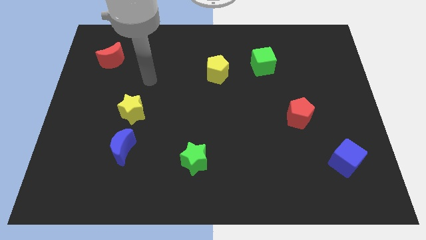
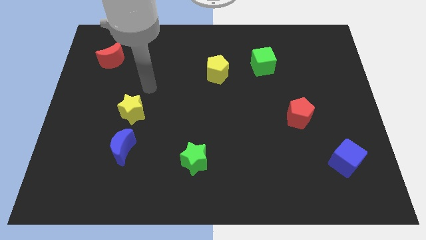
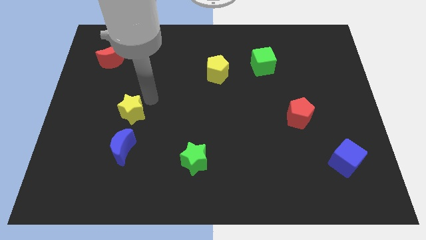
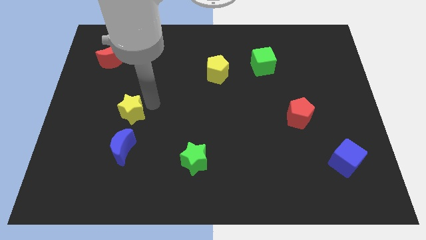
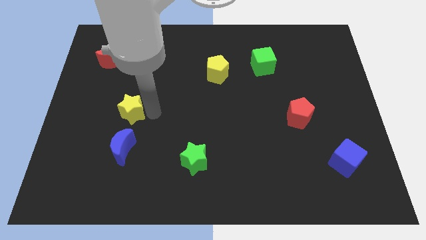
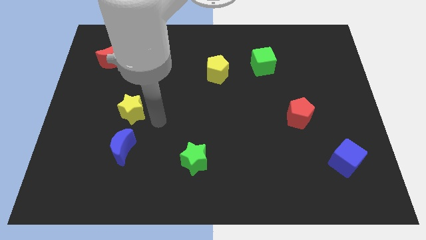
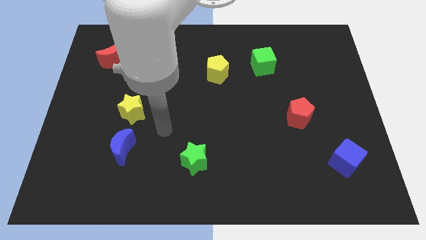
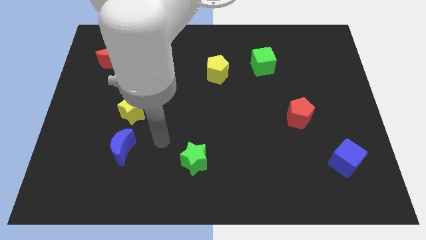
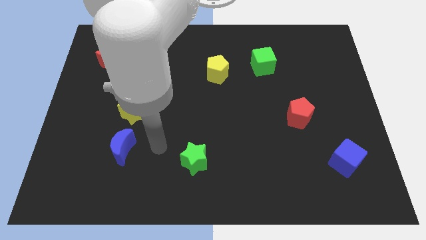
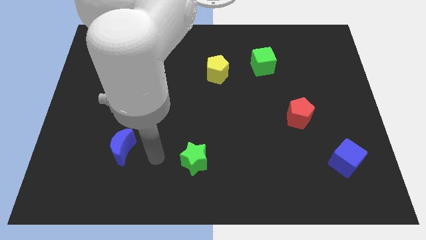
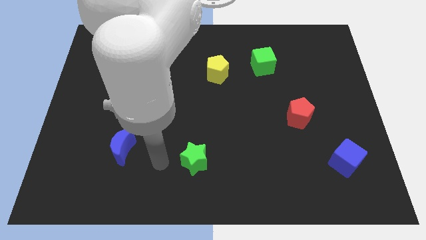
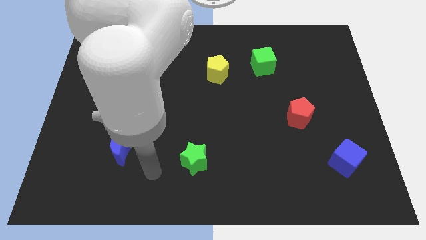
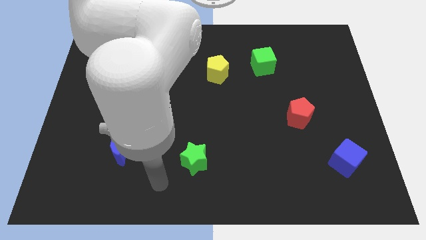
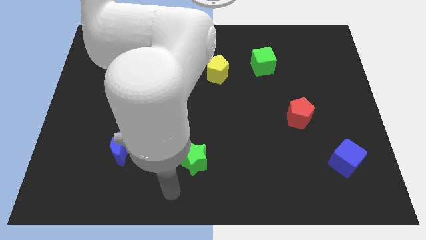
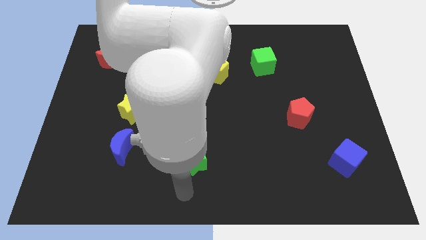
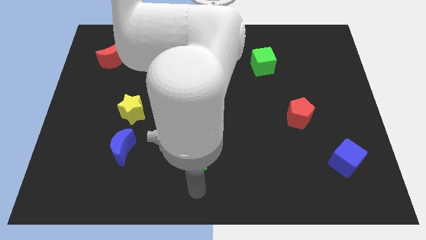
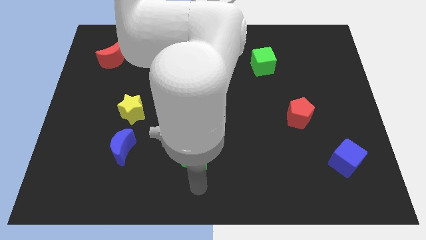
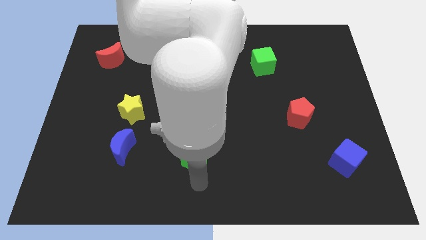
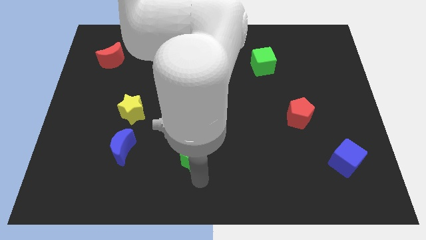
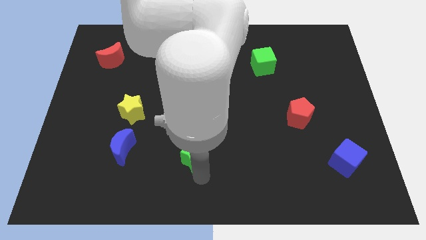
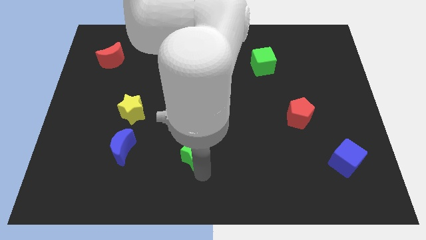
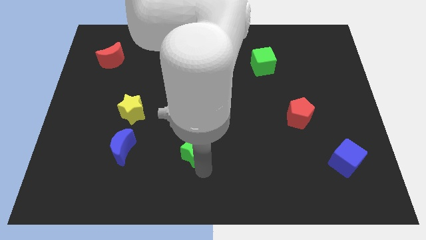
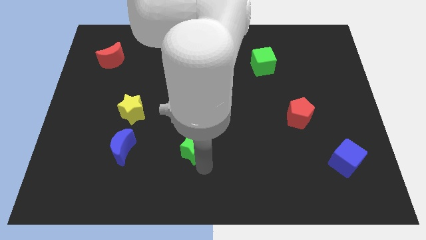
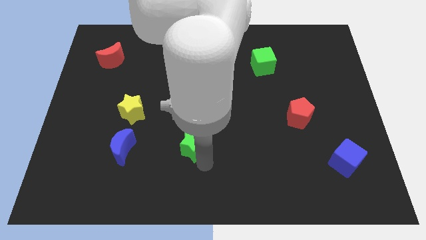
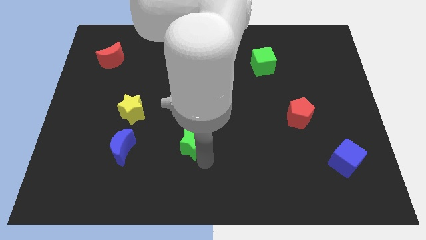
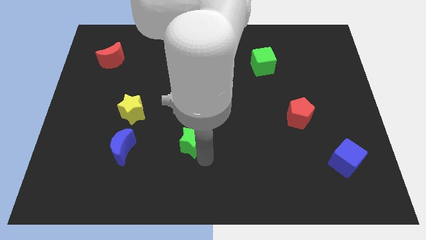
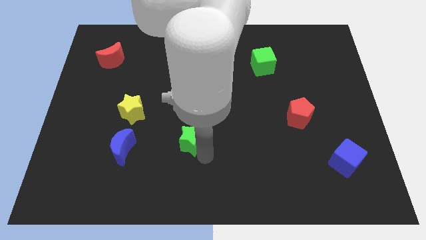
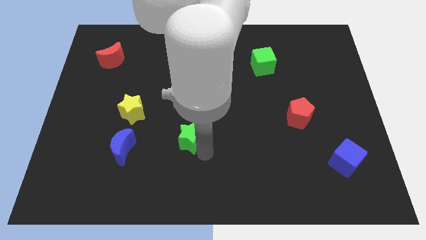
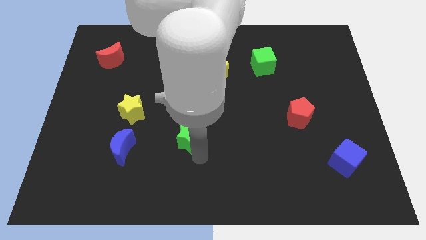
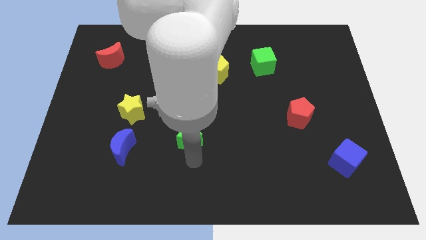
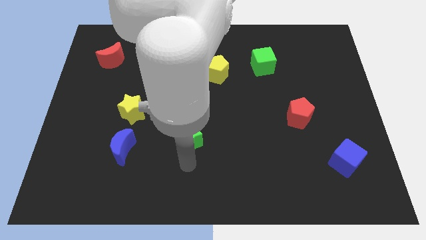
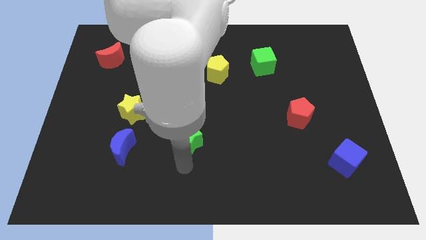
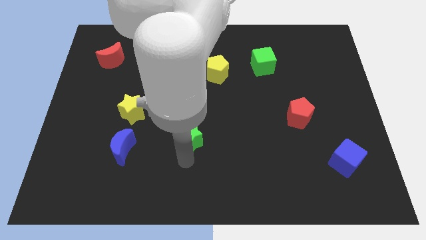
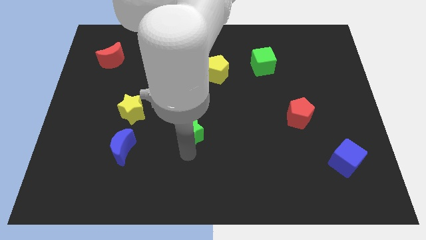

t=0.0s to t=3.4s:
slightly move the green star upwards

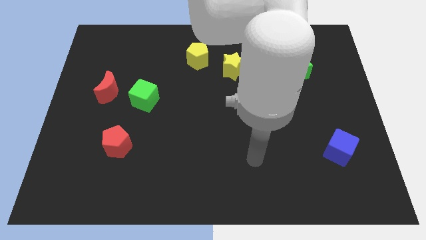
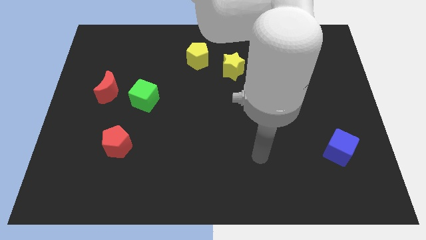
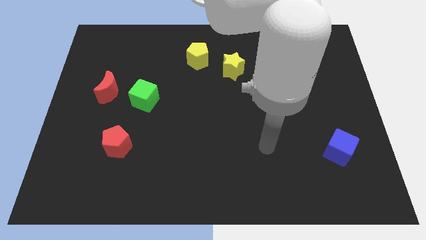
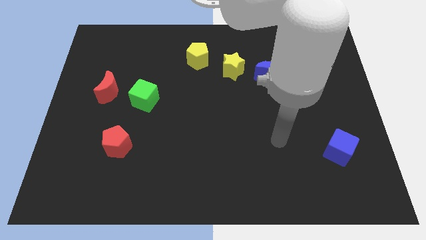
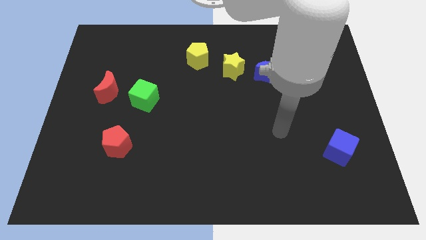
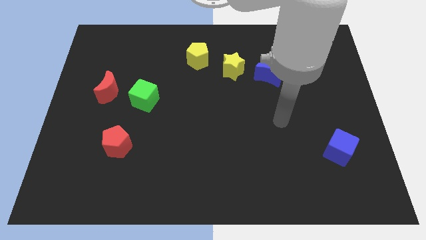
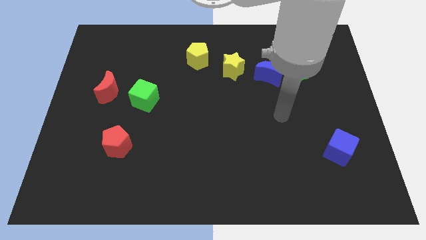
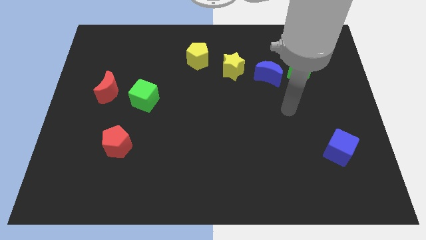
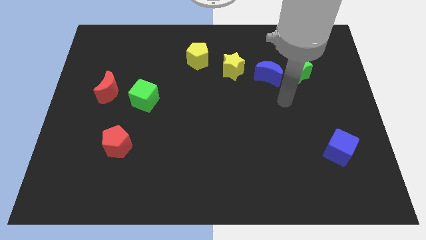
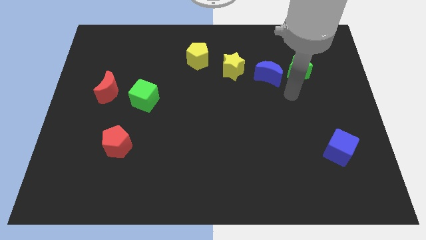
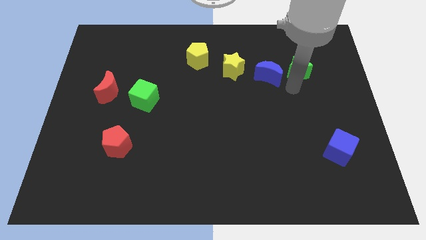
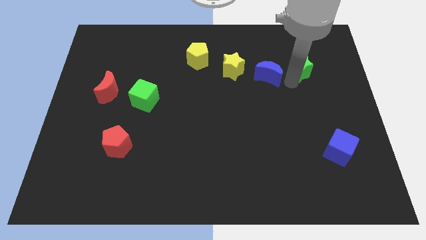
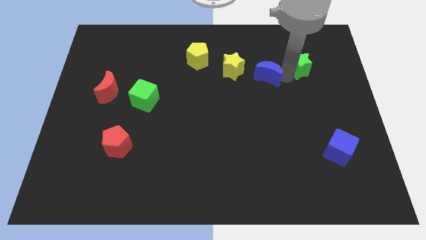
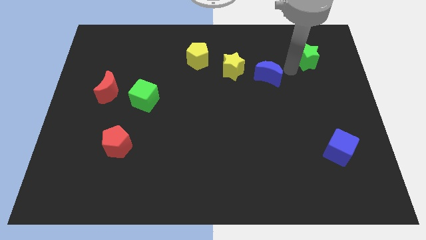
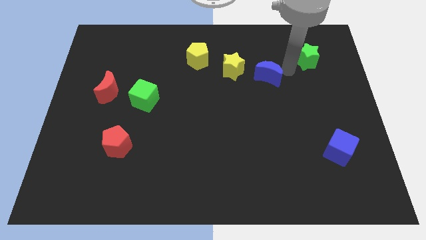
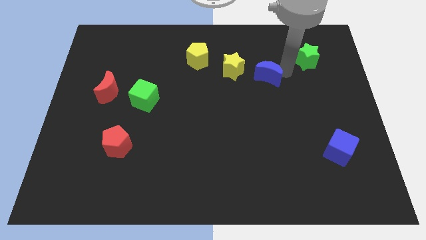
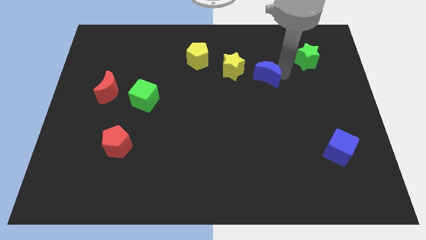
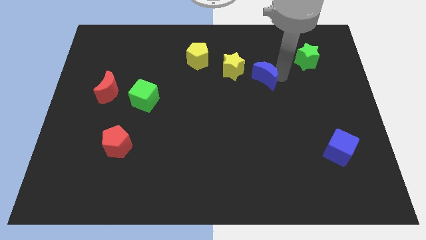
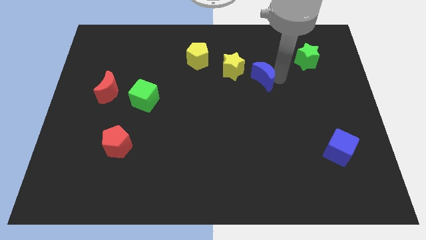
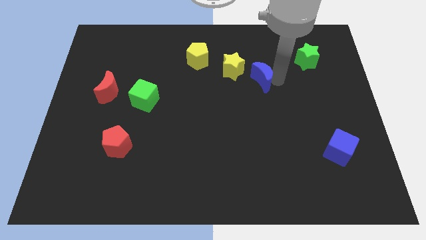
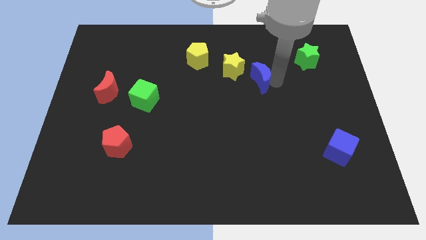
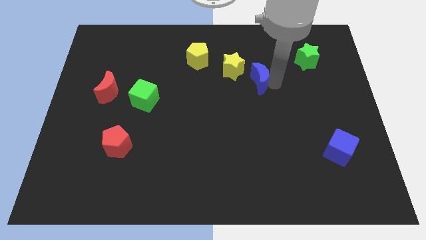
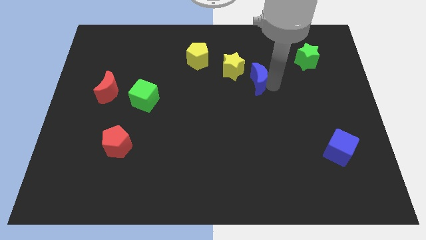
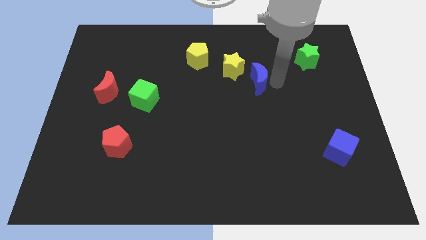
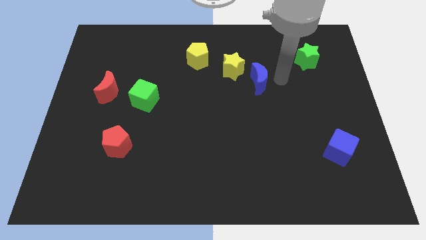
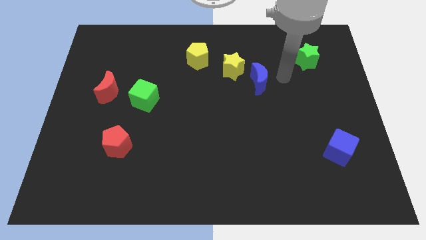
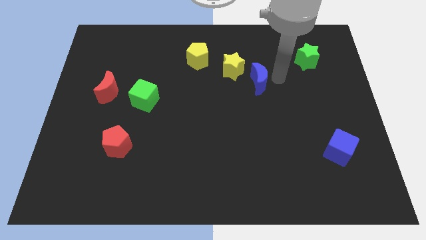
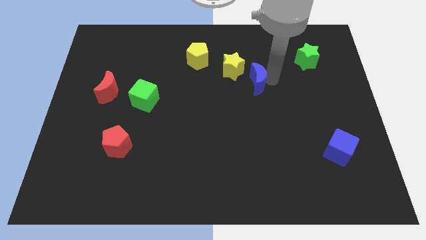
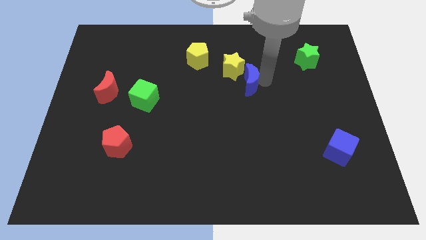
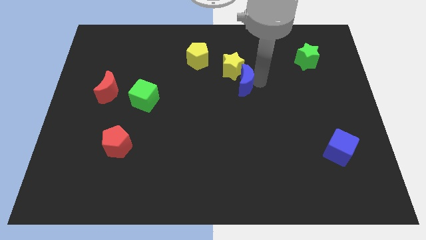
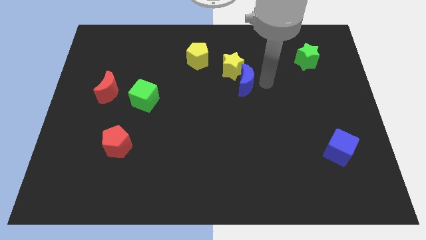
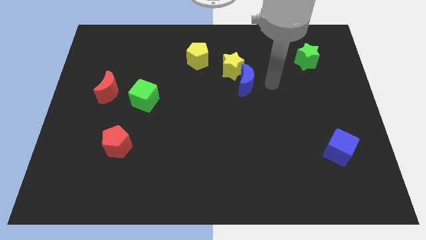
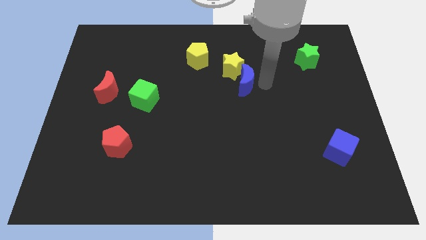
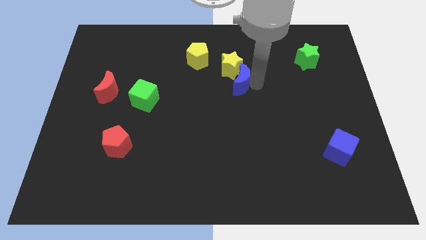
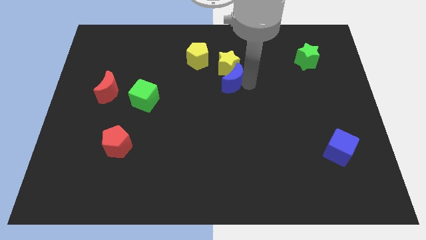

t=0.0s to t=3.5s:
slide the blue moon to the left slightly

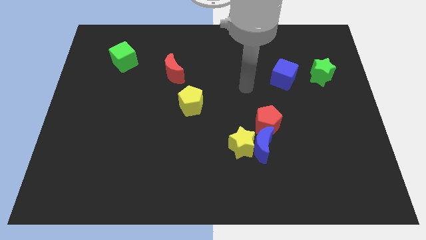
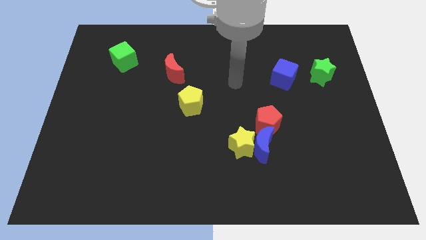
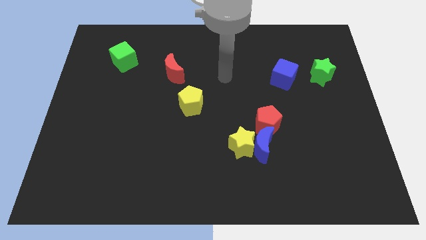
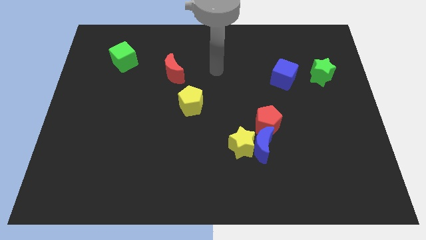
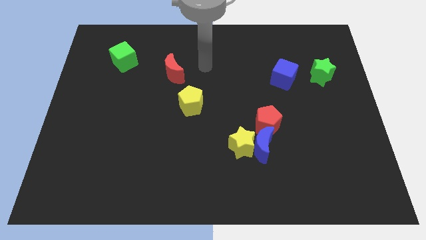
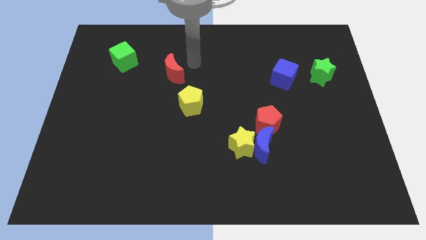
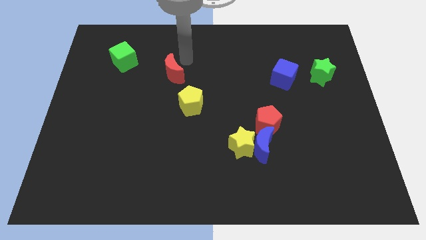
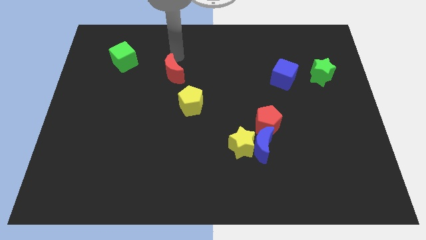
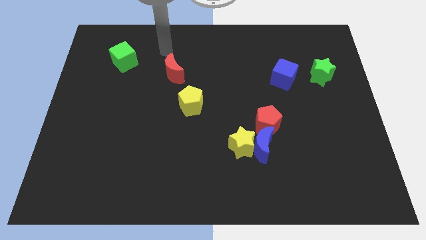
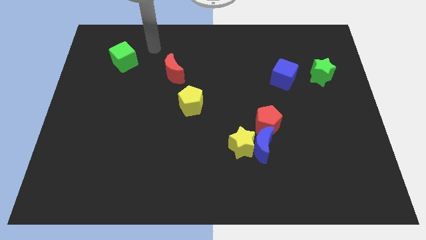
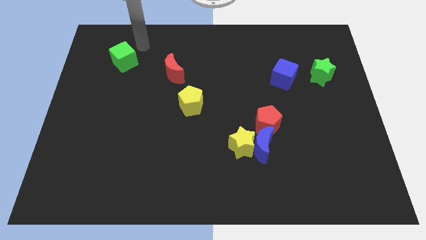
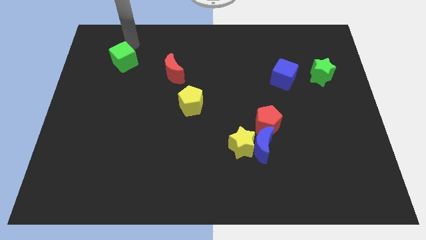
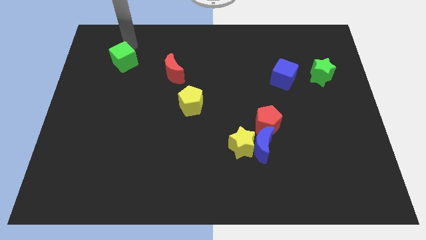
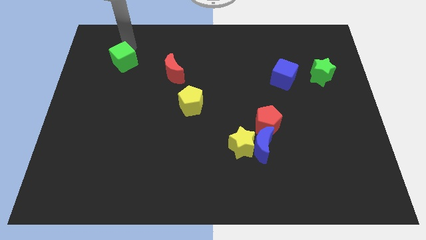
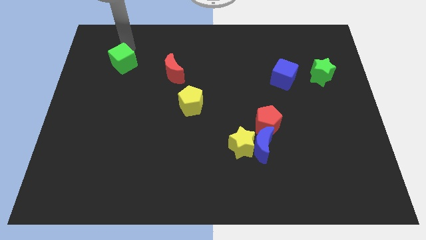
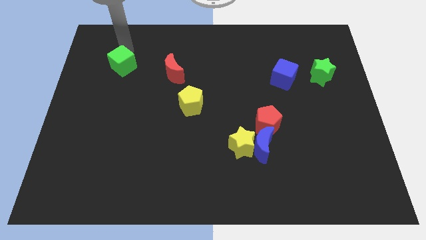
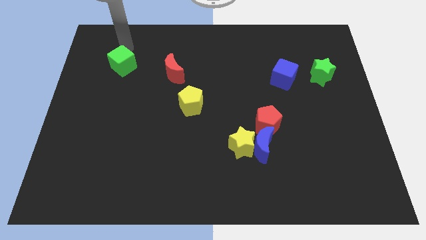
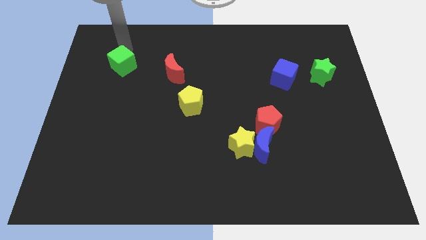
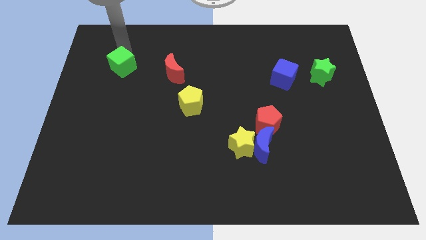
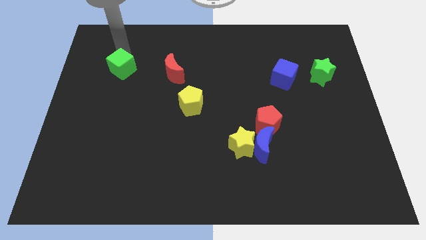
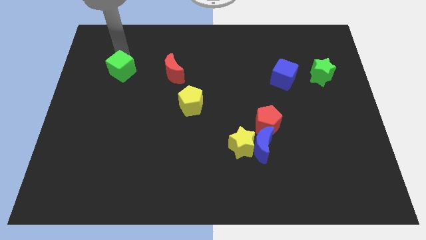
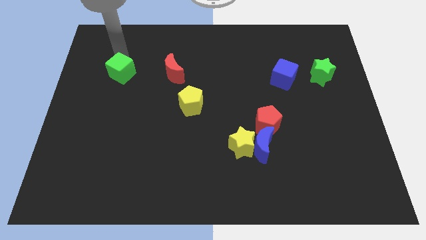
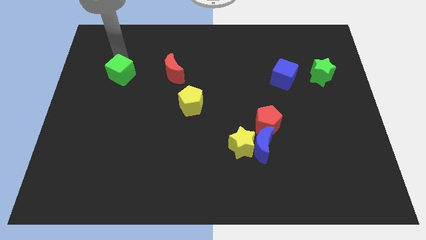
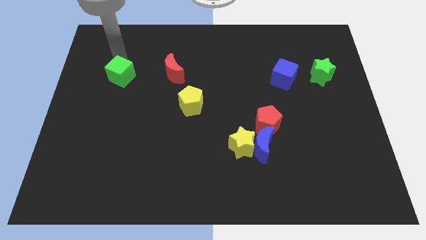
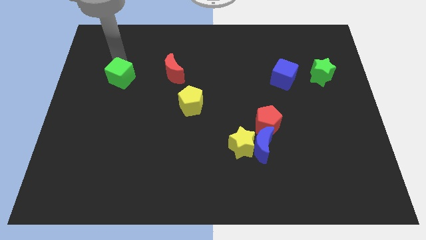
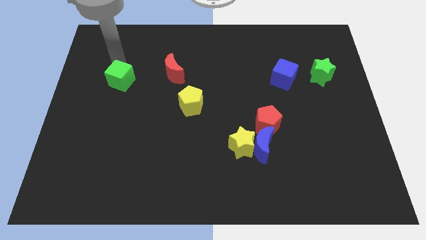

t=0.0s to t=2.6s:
slide the green cube a bit downwards
